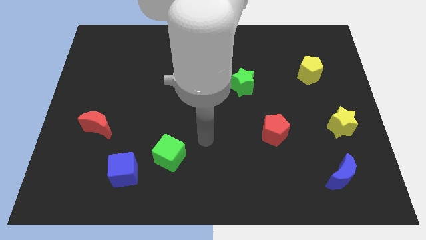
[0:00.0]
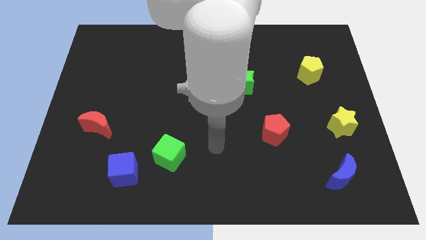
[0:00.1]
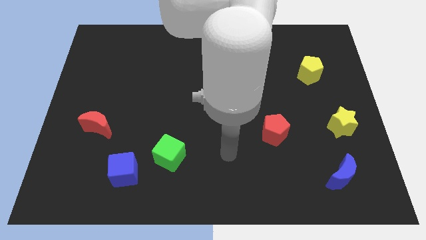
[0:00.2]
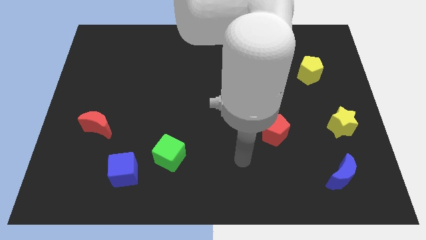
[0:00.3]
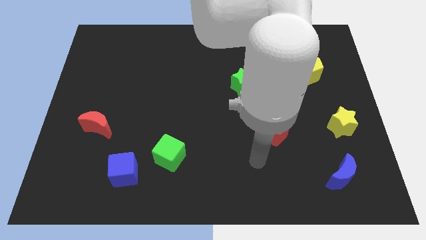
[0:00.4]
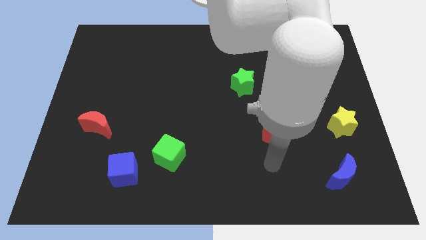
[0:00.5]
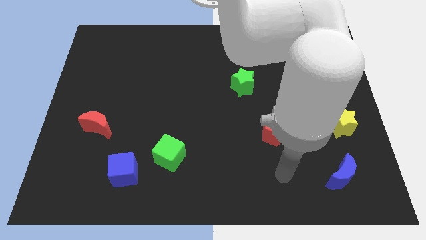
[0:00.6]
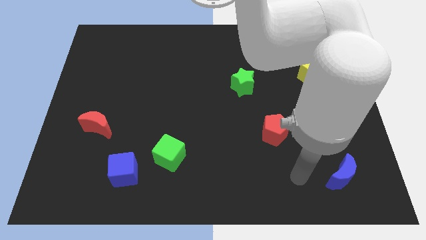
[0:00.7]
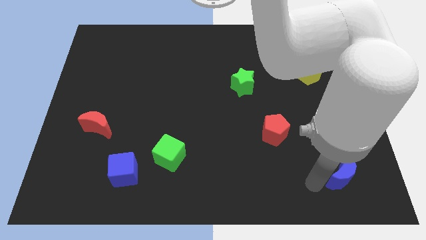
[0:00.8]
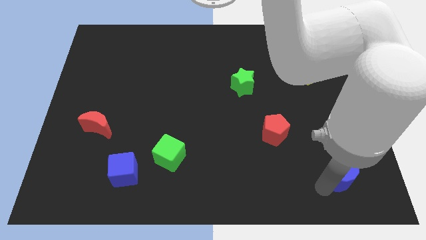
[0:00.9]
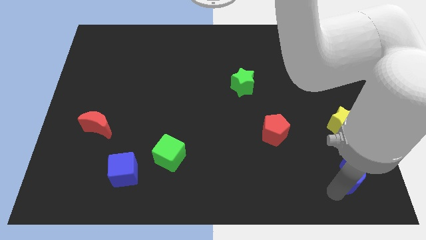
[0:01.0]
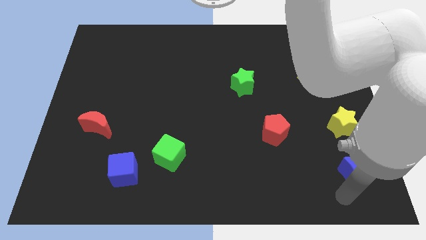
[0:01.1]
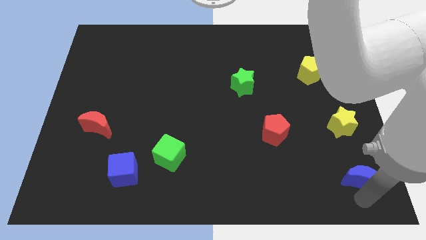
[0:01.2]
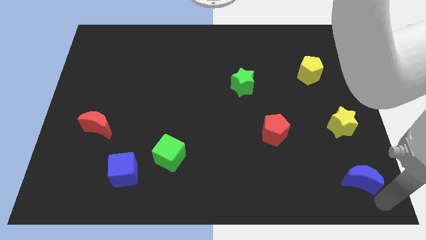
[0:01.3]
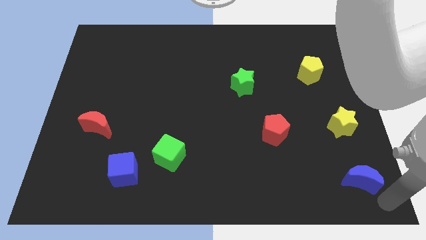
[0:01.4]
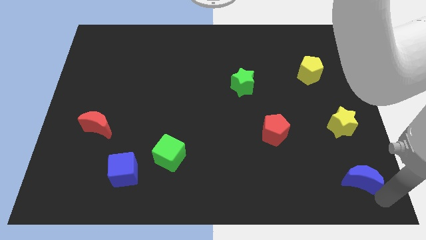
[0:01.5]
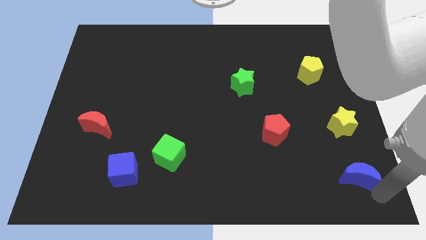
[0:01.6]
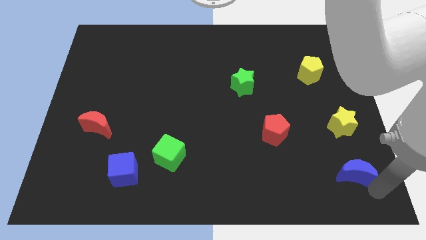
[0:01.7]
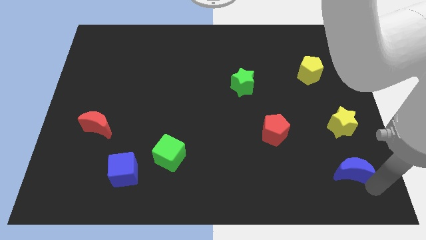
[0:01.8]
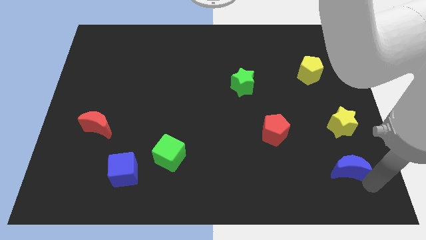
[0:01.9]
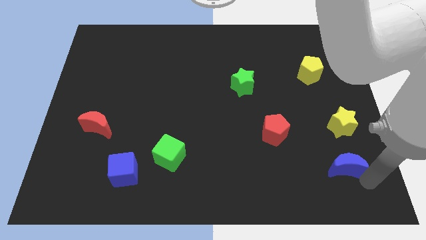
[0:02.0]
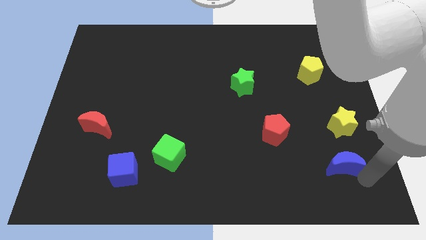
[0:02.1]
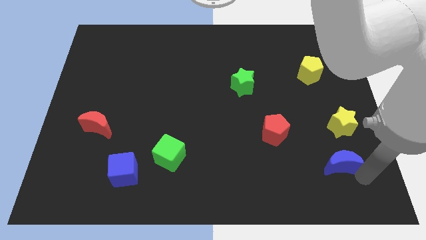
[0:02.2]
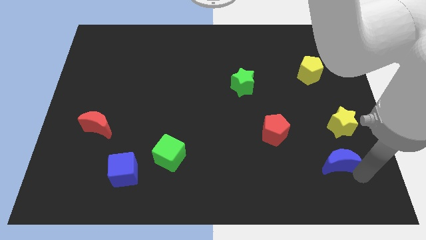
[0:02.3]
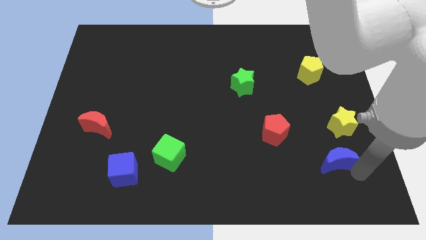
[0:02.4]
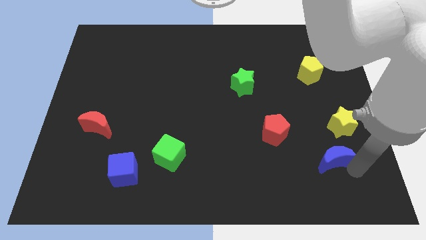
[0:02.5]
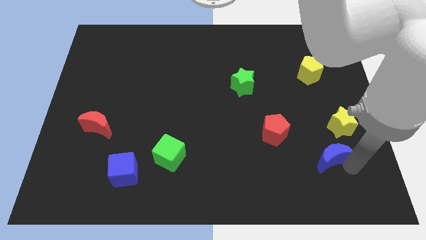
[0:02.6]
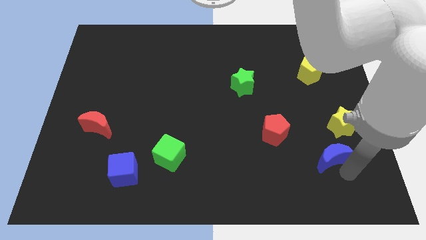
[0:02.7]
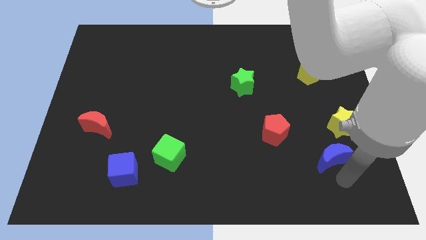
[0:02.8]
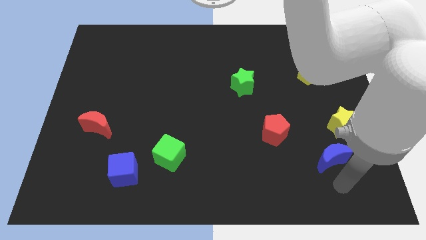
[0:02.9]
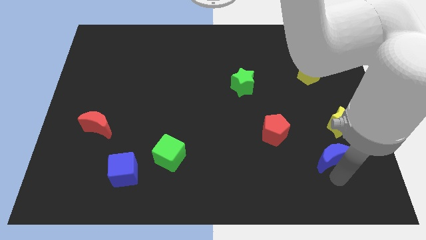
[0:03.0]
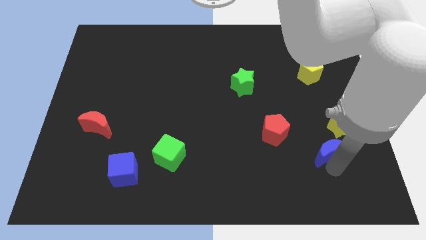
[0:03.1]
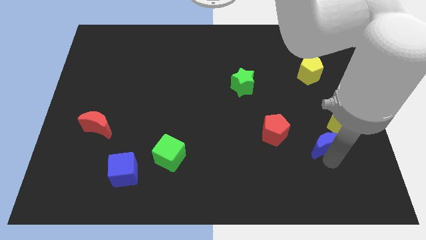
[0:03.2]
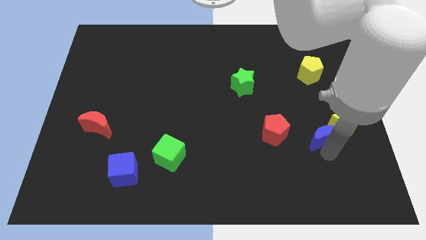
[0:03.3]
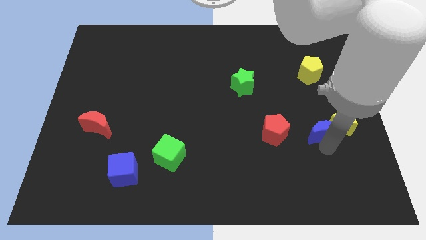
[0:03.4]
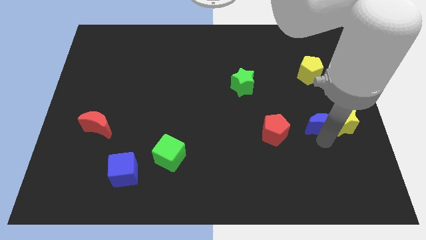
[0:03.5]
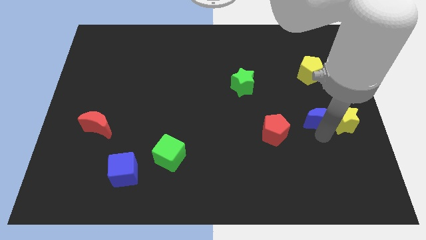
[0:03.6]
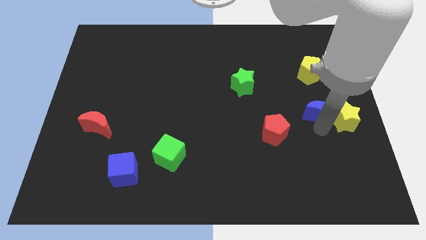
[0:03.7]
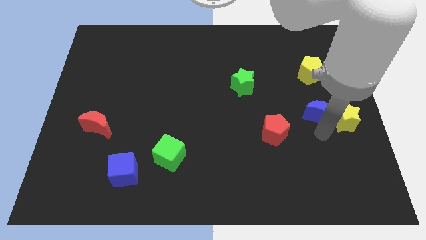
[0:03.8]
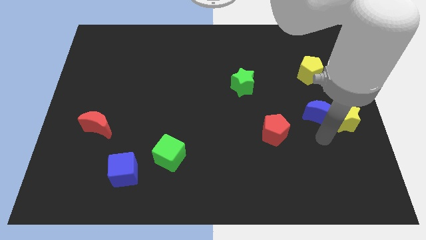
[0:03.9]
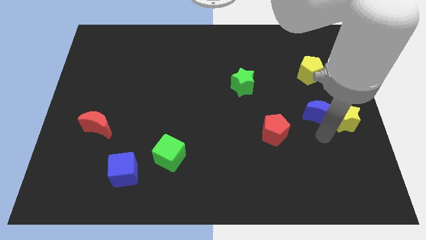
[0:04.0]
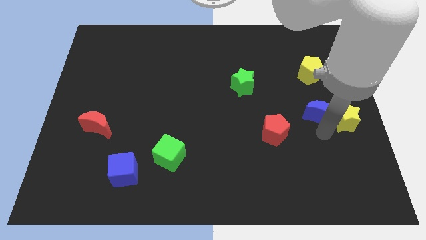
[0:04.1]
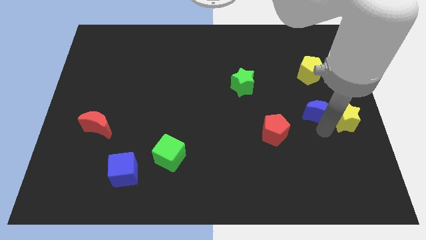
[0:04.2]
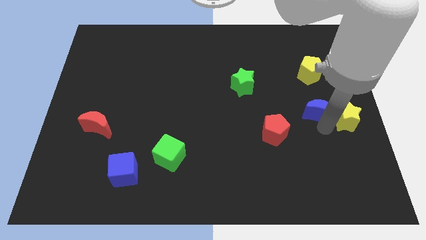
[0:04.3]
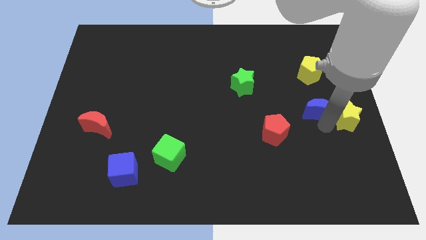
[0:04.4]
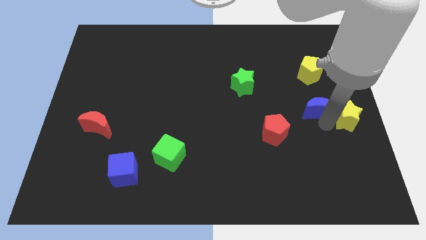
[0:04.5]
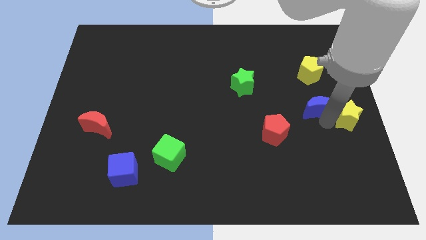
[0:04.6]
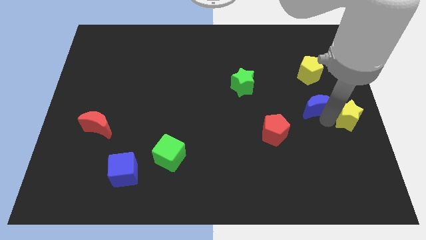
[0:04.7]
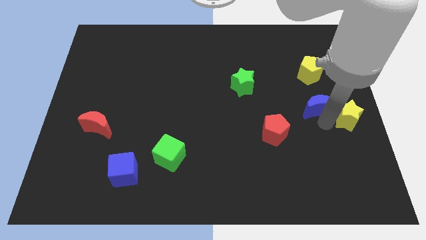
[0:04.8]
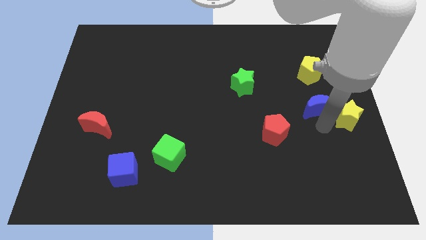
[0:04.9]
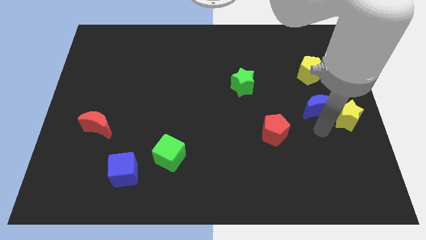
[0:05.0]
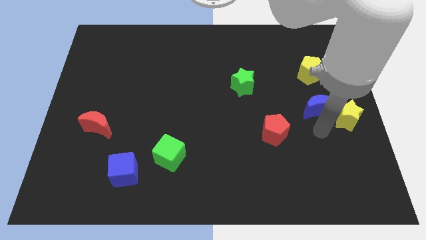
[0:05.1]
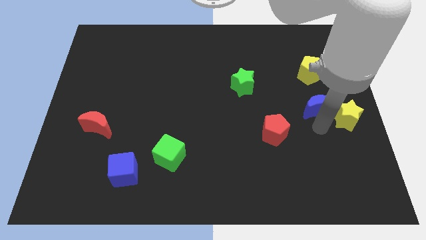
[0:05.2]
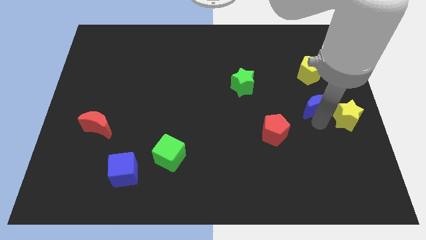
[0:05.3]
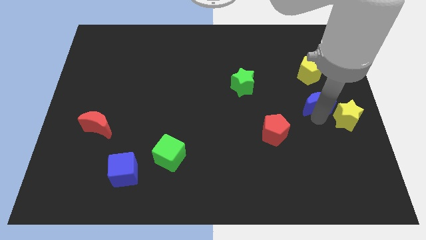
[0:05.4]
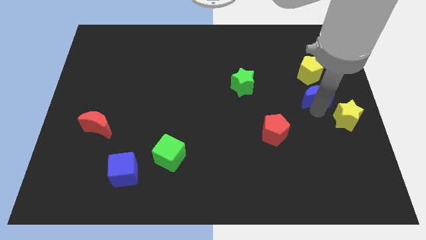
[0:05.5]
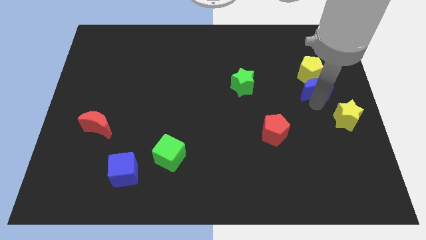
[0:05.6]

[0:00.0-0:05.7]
push the blue moon to the yellow pentagon

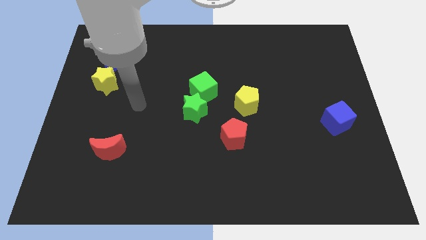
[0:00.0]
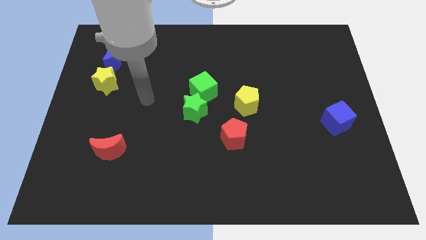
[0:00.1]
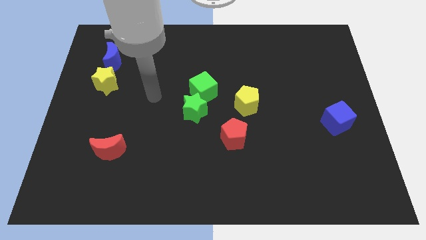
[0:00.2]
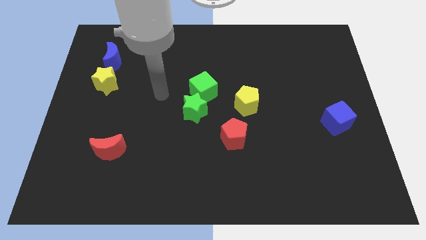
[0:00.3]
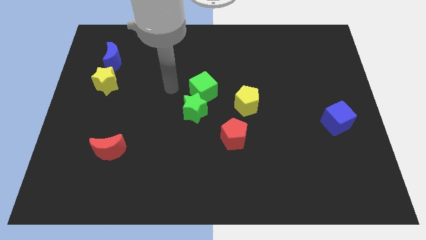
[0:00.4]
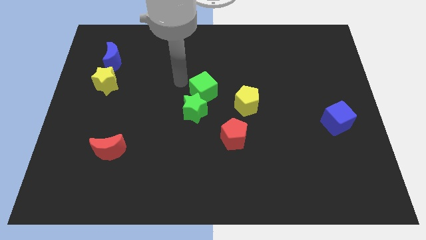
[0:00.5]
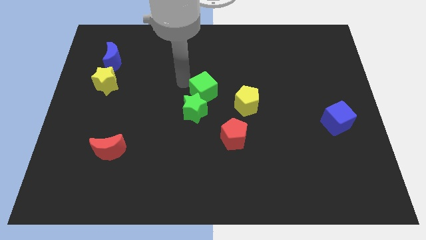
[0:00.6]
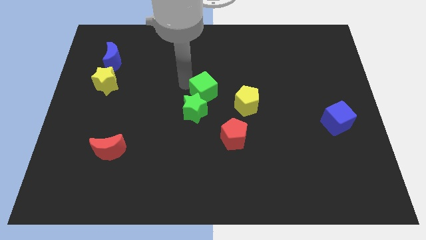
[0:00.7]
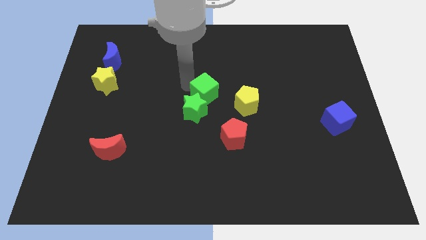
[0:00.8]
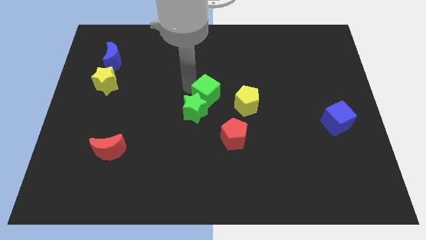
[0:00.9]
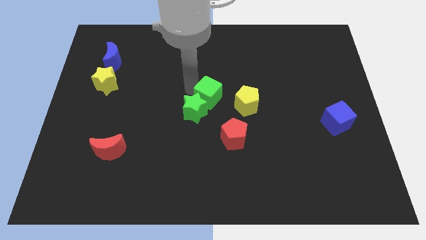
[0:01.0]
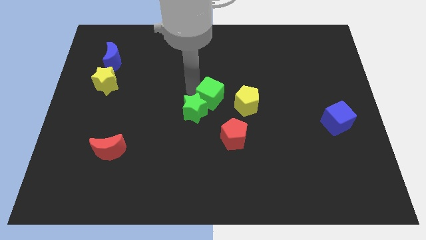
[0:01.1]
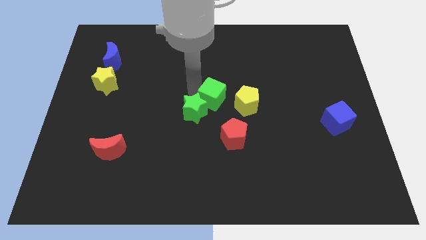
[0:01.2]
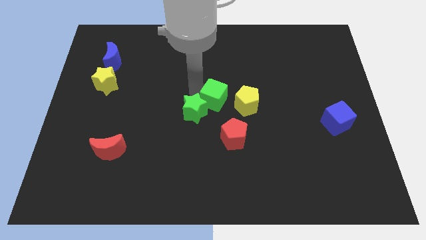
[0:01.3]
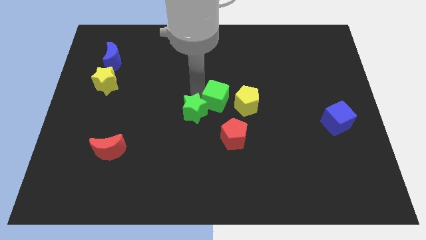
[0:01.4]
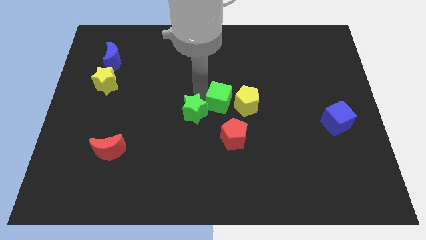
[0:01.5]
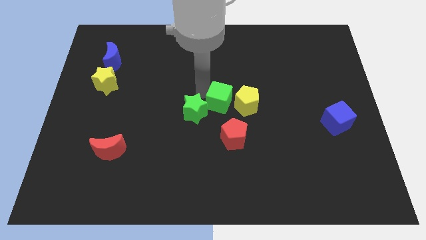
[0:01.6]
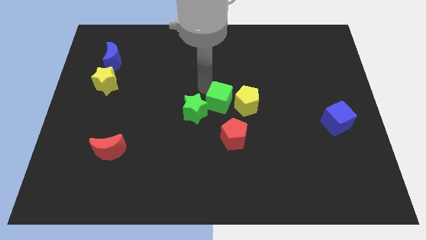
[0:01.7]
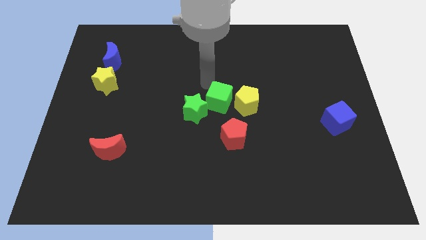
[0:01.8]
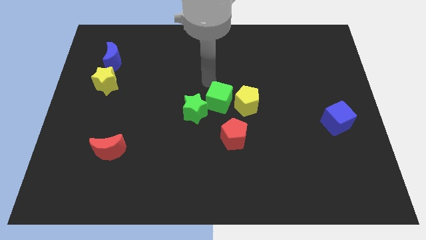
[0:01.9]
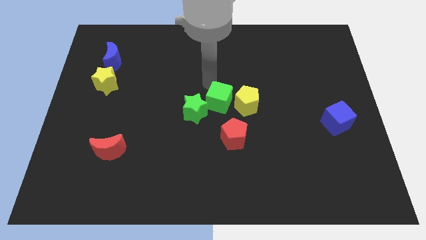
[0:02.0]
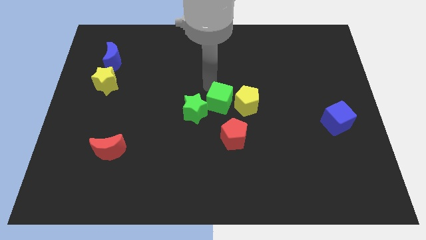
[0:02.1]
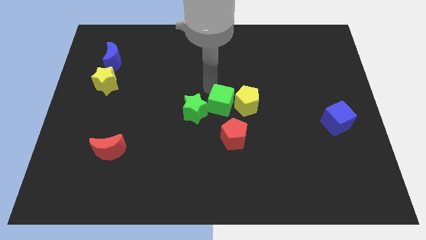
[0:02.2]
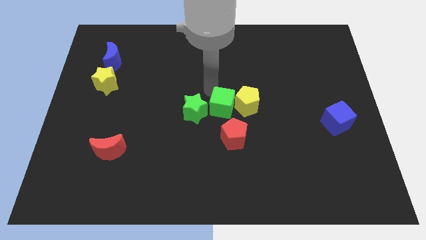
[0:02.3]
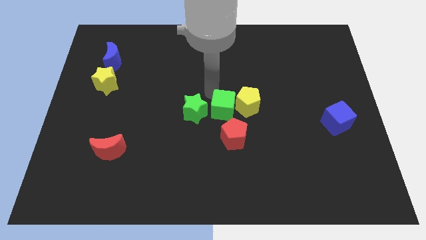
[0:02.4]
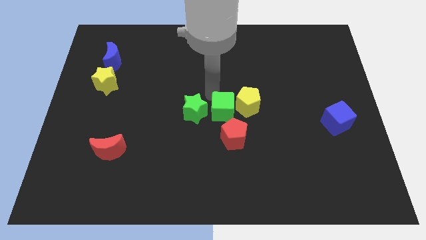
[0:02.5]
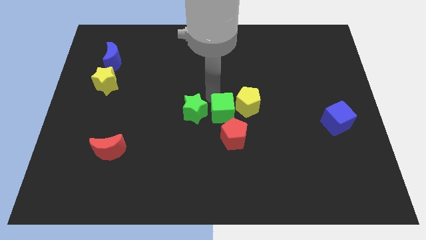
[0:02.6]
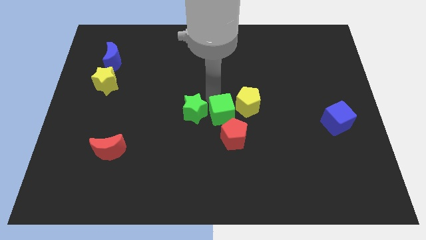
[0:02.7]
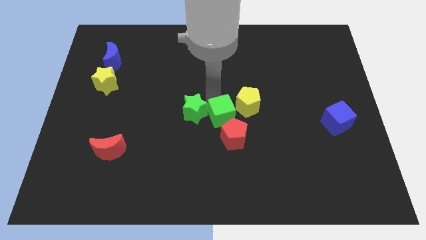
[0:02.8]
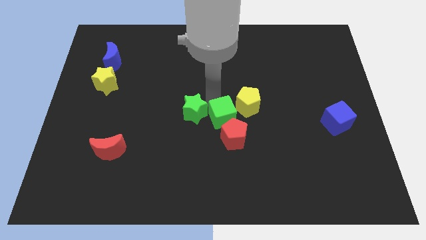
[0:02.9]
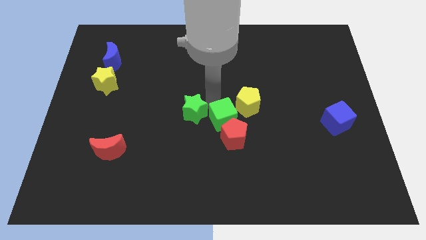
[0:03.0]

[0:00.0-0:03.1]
move the green cube towards the red pentagon
